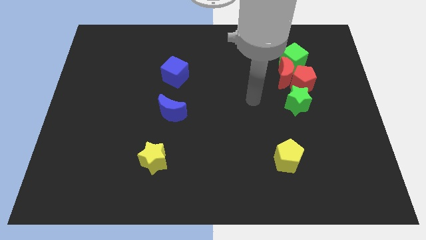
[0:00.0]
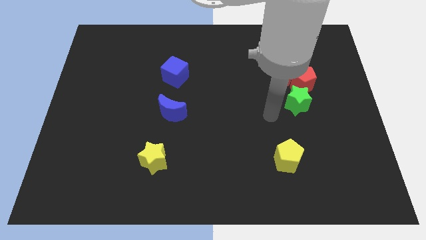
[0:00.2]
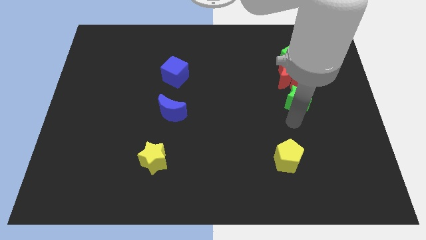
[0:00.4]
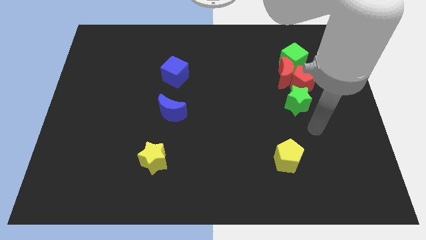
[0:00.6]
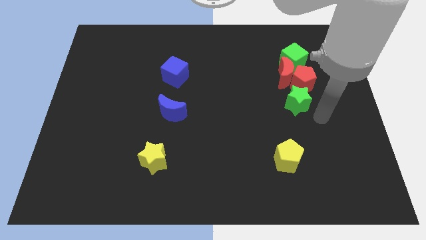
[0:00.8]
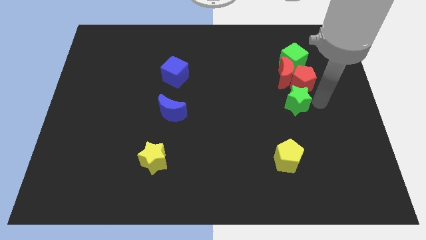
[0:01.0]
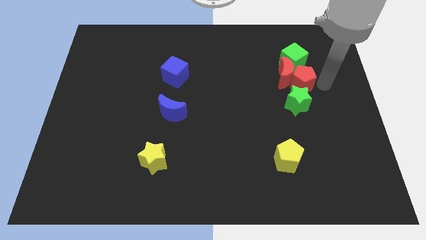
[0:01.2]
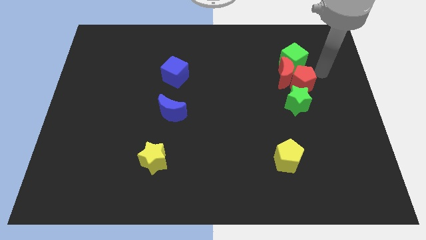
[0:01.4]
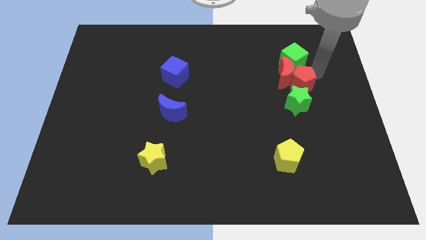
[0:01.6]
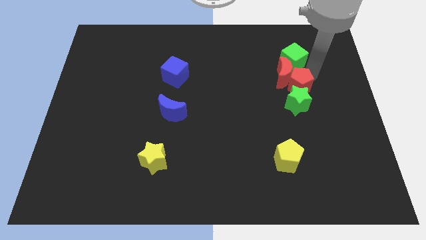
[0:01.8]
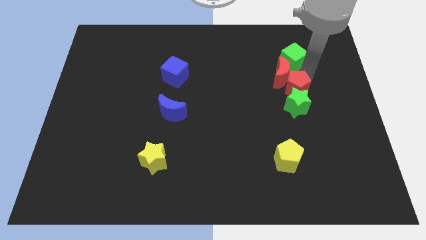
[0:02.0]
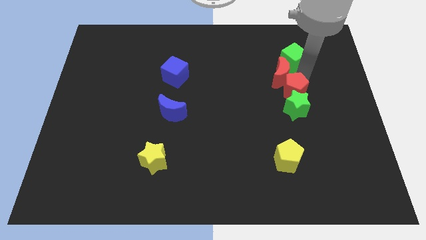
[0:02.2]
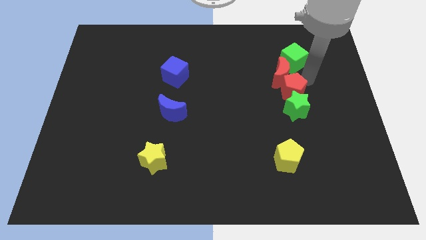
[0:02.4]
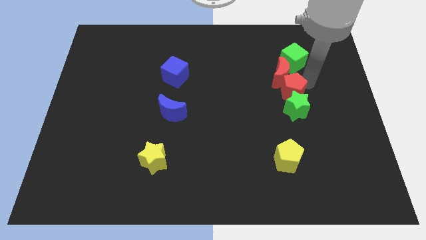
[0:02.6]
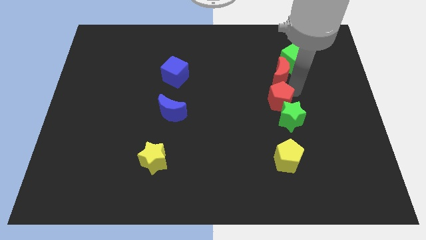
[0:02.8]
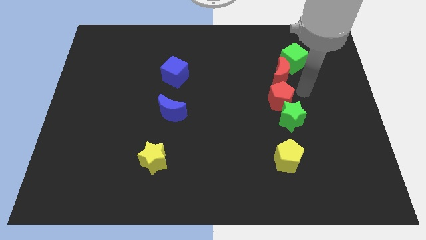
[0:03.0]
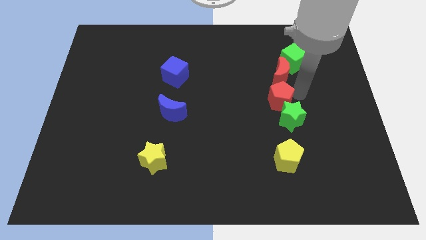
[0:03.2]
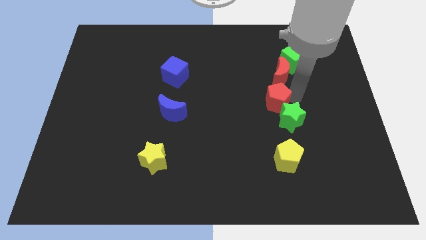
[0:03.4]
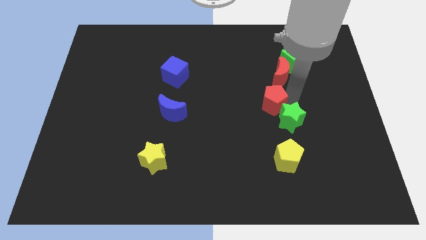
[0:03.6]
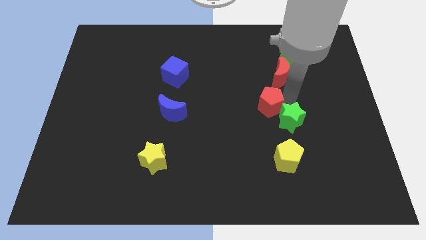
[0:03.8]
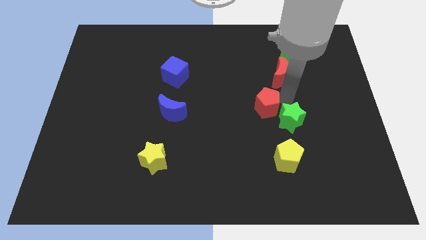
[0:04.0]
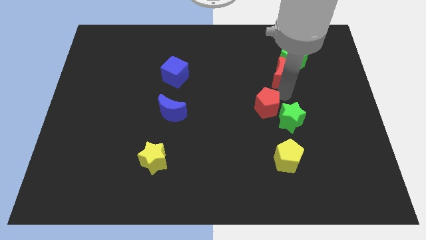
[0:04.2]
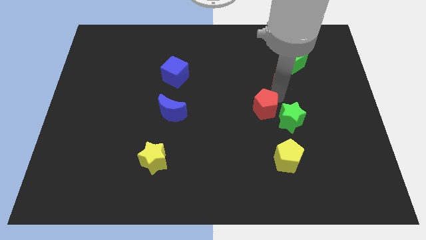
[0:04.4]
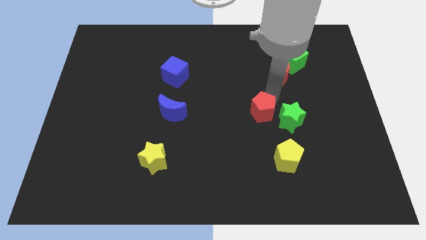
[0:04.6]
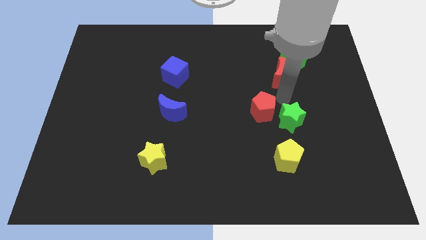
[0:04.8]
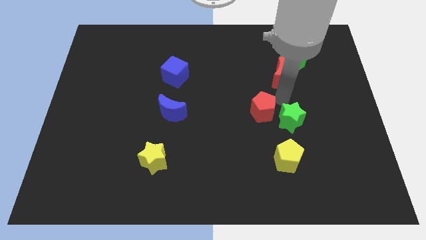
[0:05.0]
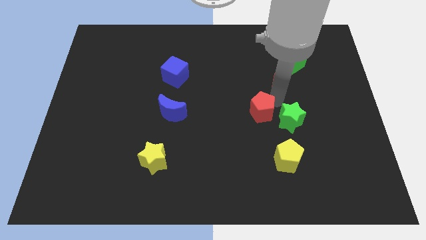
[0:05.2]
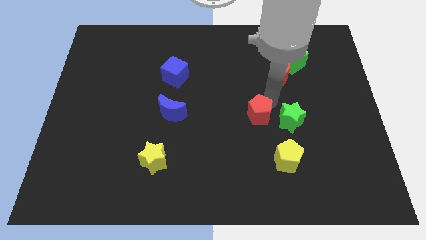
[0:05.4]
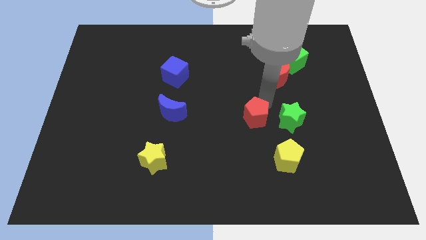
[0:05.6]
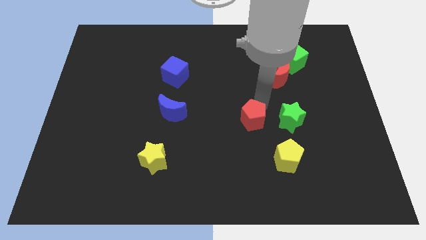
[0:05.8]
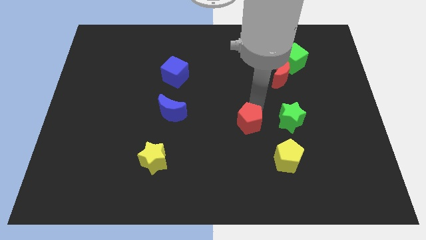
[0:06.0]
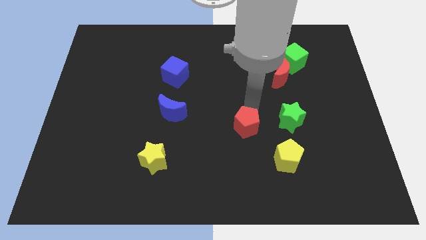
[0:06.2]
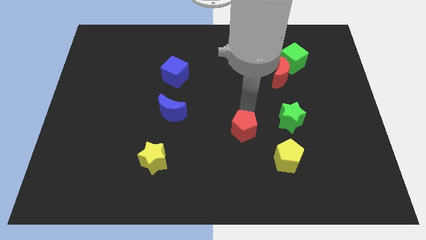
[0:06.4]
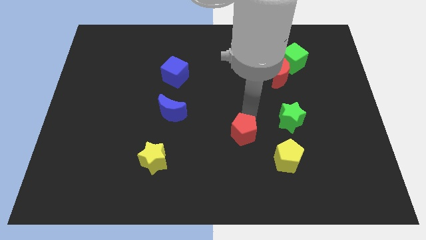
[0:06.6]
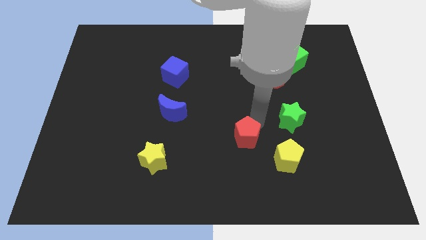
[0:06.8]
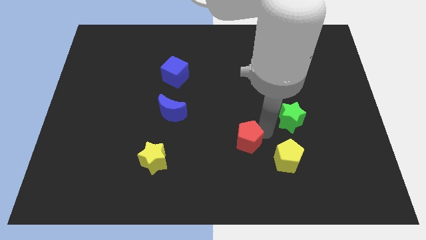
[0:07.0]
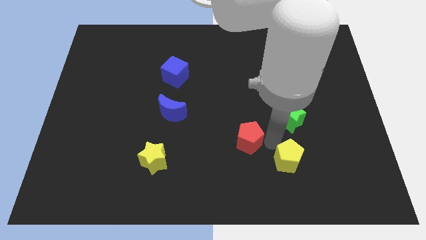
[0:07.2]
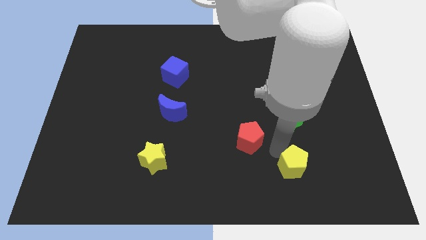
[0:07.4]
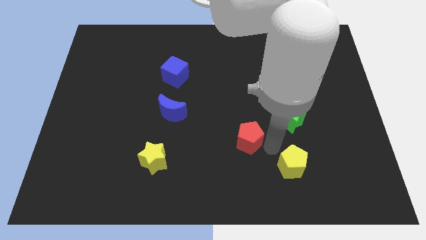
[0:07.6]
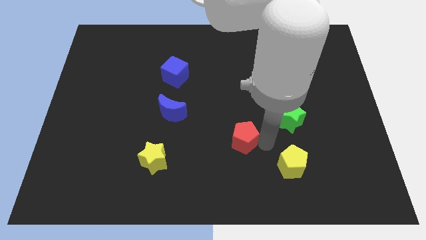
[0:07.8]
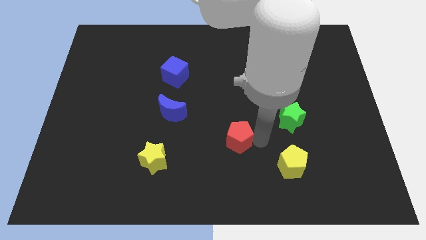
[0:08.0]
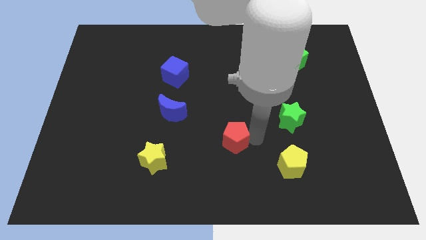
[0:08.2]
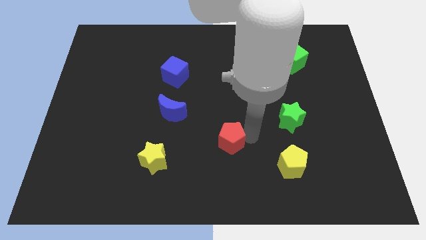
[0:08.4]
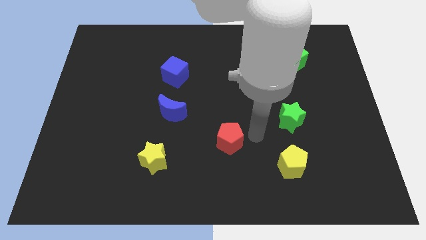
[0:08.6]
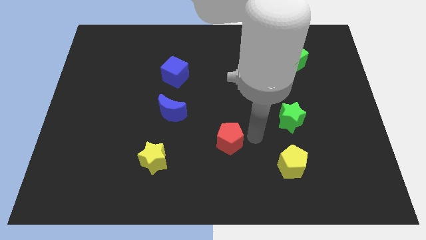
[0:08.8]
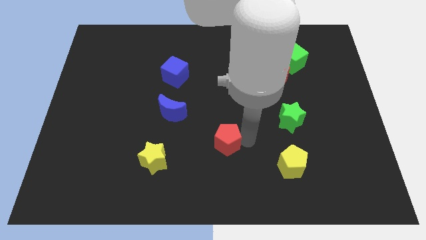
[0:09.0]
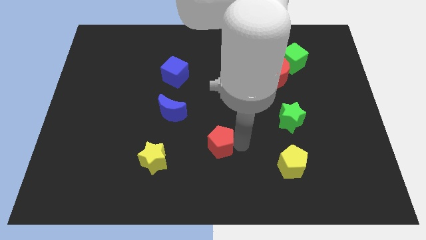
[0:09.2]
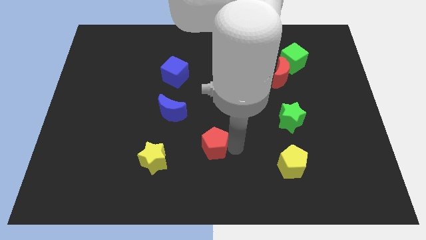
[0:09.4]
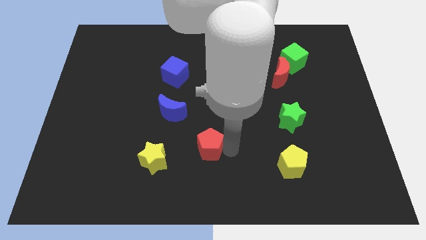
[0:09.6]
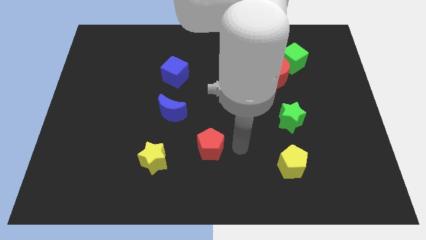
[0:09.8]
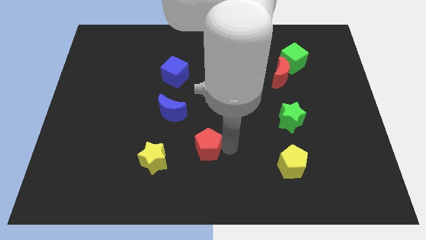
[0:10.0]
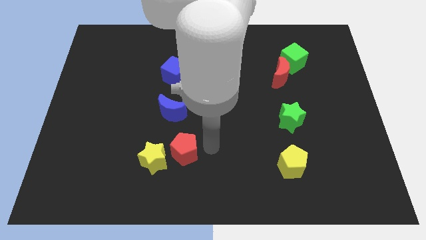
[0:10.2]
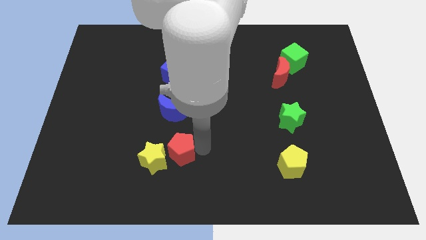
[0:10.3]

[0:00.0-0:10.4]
move the red pentagon next to the yellow star

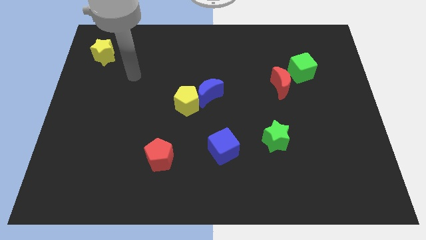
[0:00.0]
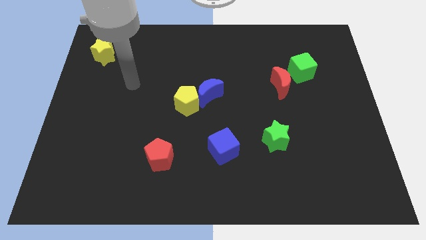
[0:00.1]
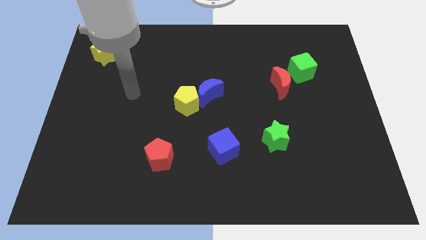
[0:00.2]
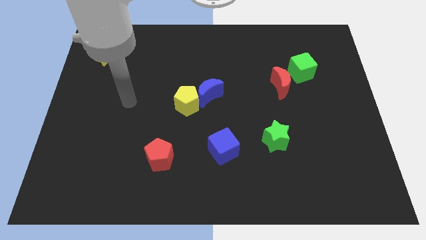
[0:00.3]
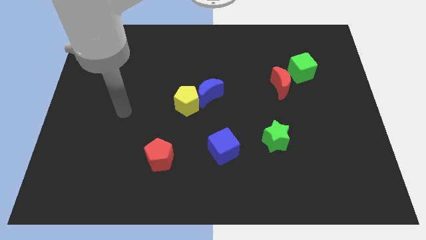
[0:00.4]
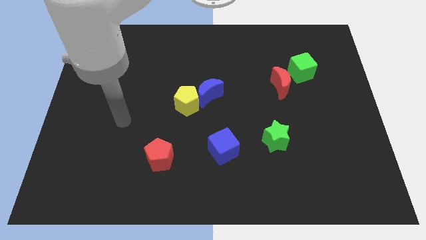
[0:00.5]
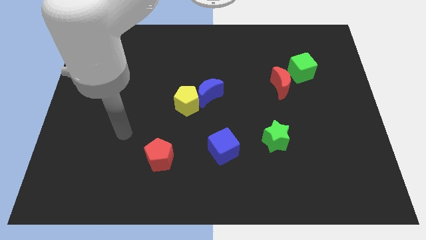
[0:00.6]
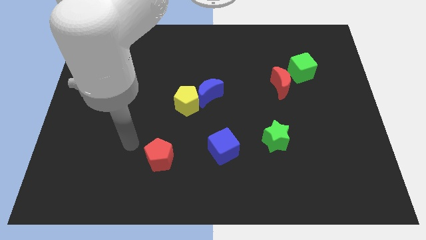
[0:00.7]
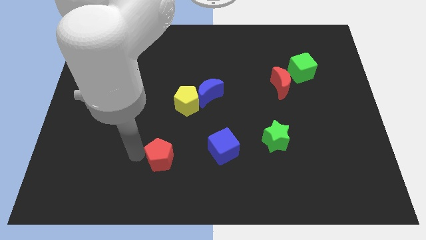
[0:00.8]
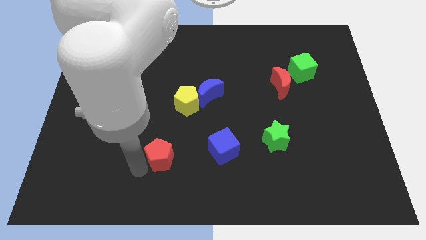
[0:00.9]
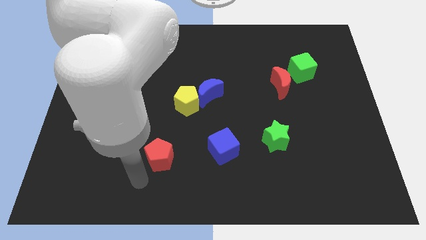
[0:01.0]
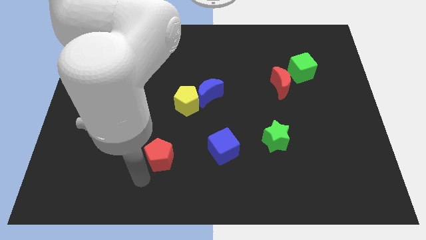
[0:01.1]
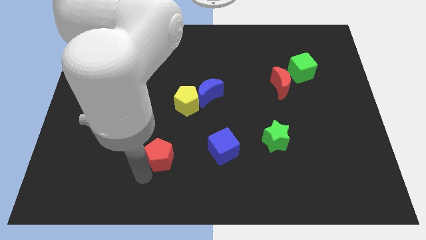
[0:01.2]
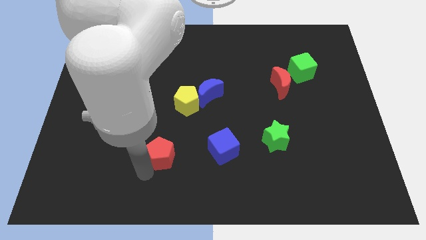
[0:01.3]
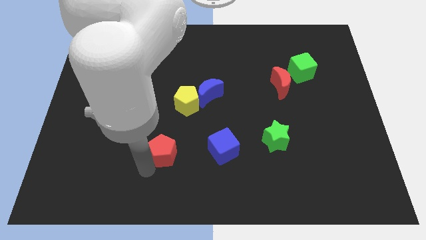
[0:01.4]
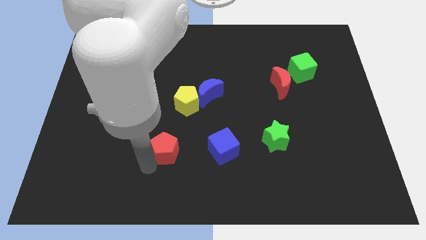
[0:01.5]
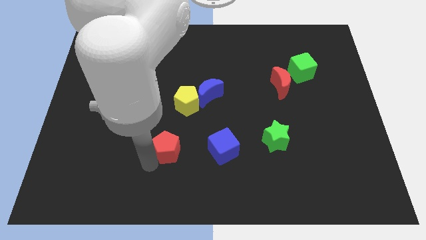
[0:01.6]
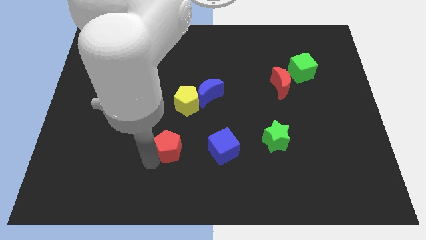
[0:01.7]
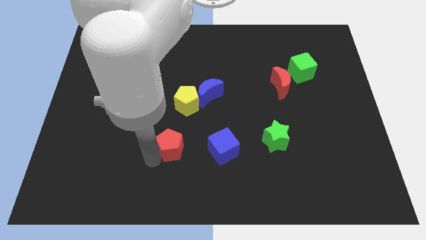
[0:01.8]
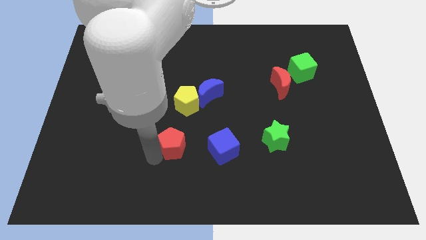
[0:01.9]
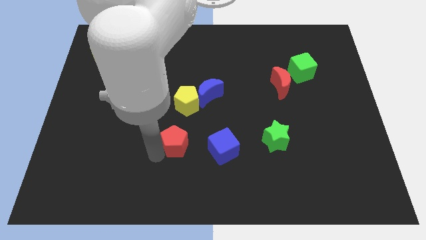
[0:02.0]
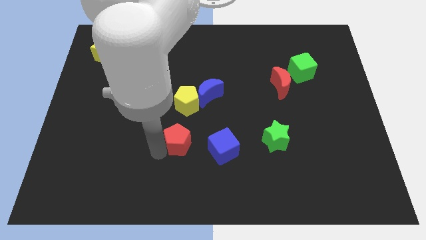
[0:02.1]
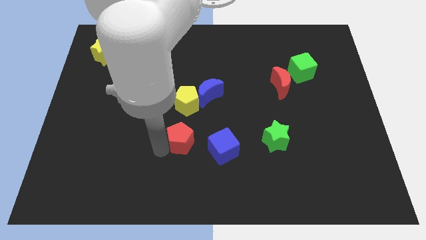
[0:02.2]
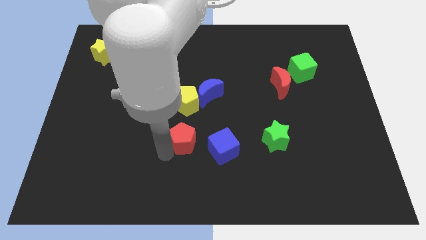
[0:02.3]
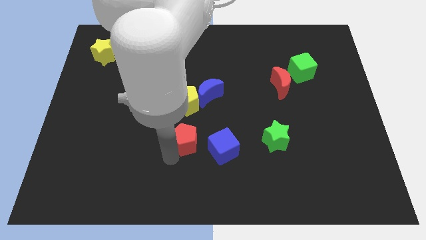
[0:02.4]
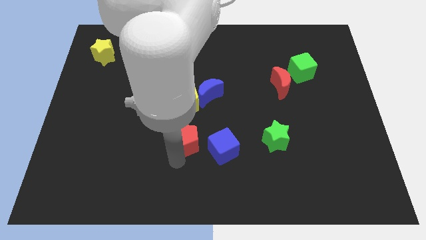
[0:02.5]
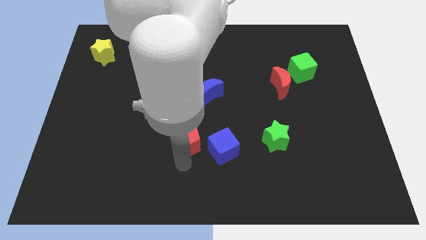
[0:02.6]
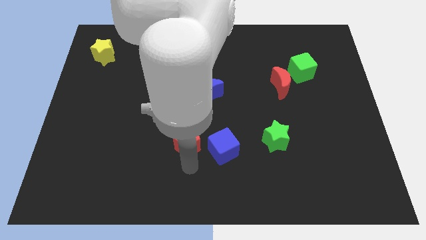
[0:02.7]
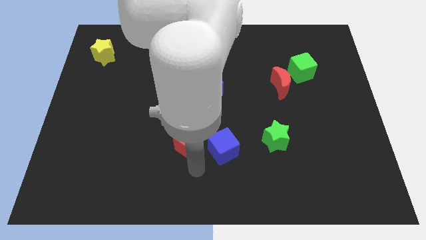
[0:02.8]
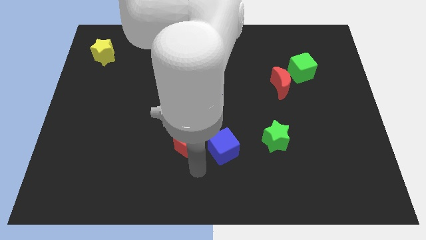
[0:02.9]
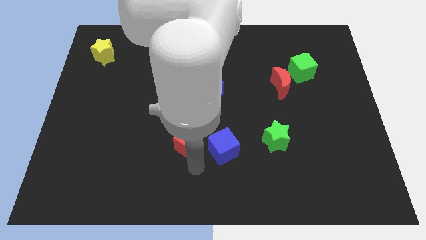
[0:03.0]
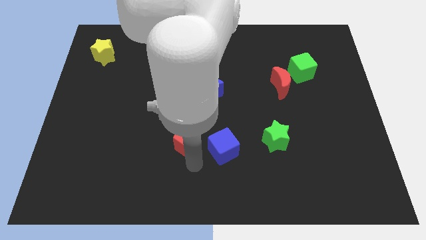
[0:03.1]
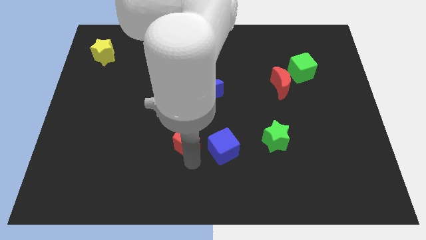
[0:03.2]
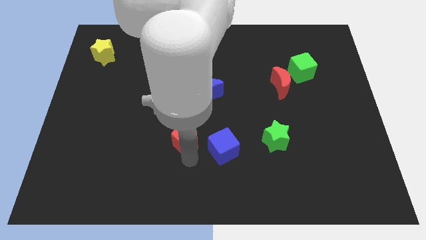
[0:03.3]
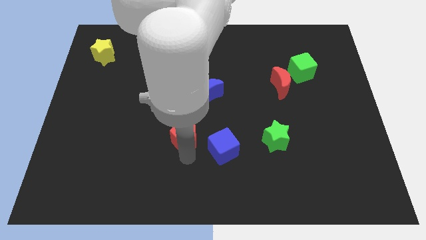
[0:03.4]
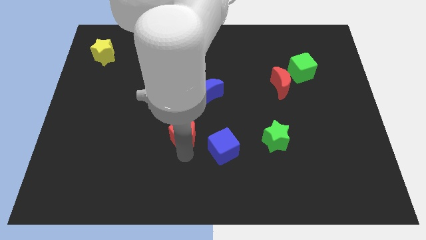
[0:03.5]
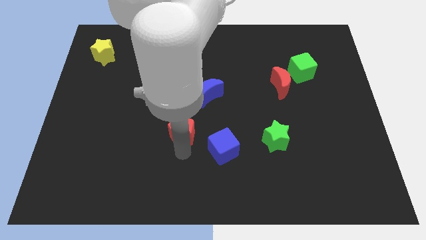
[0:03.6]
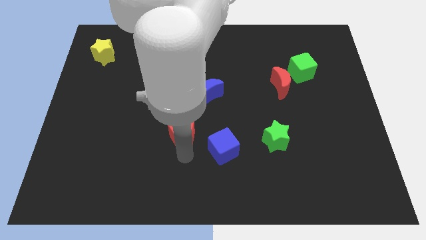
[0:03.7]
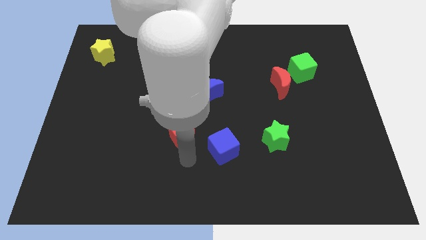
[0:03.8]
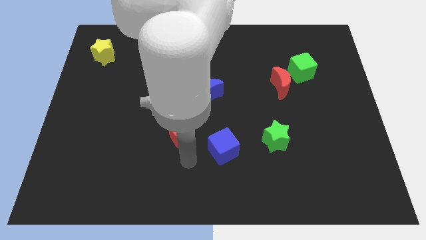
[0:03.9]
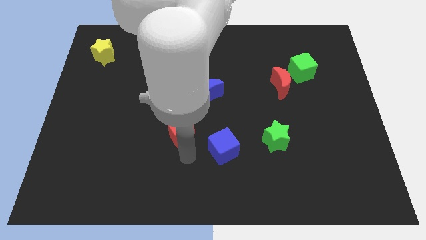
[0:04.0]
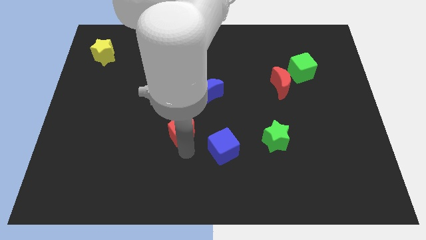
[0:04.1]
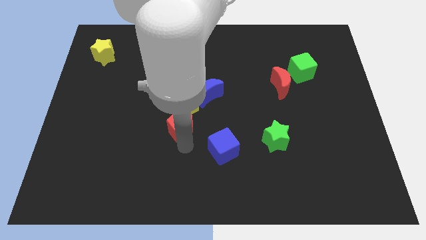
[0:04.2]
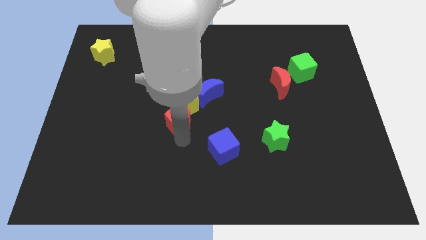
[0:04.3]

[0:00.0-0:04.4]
slide the red pentagon close to the yellow pentagon
